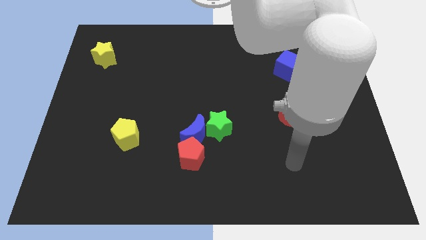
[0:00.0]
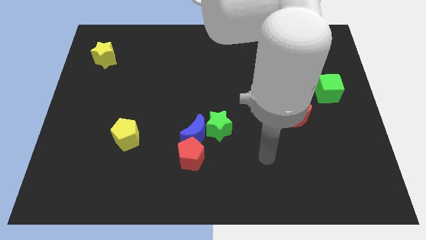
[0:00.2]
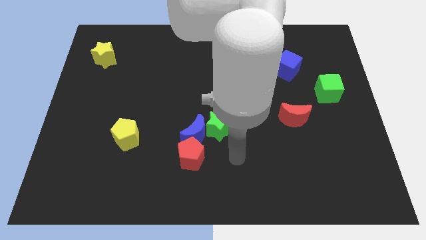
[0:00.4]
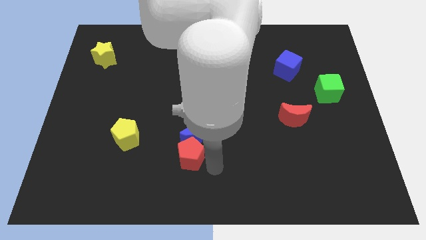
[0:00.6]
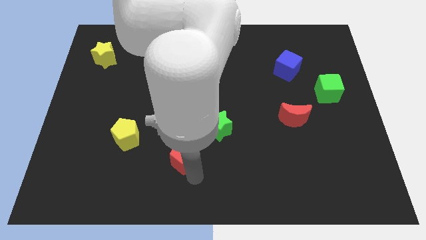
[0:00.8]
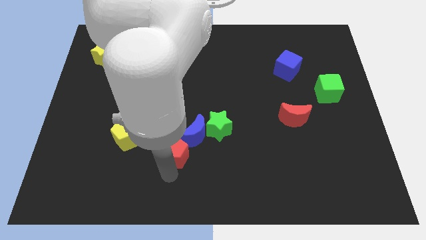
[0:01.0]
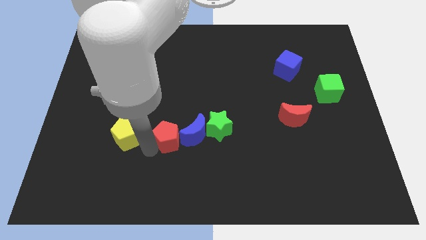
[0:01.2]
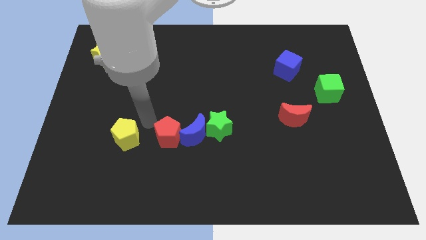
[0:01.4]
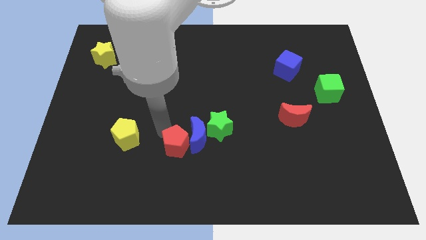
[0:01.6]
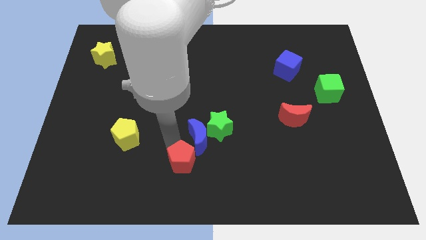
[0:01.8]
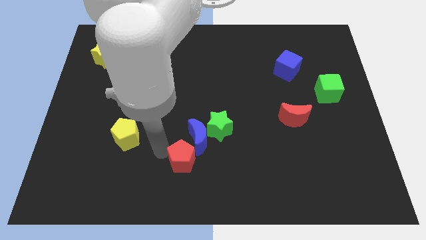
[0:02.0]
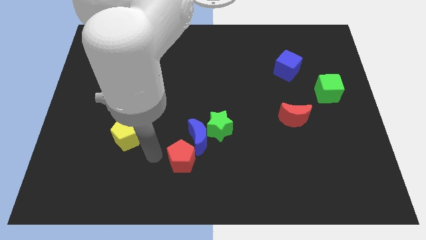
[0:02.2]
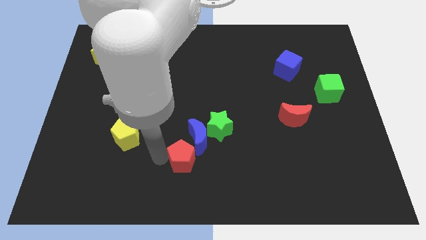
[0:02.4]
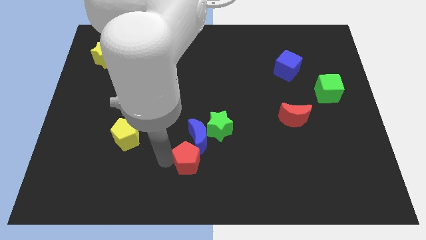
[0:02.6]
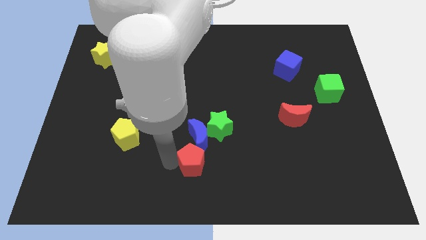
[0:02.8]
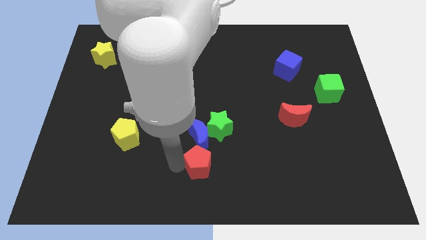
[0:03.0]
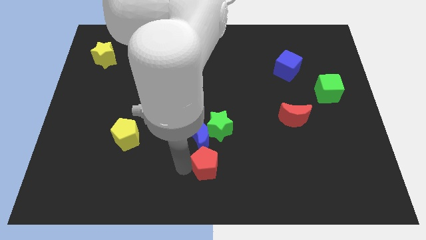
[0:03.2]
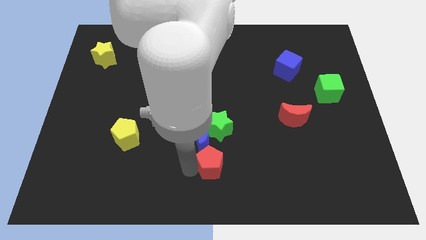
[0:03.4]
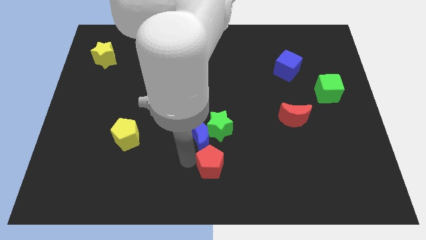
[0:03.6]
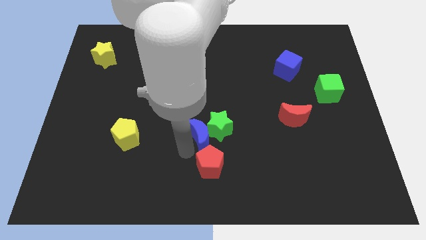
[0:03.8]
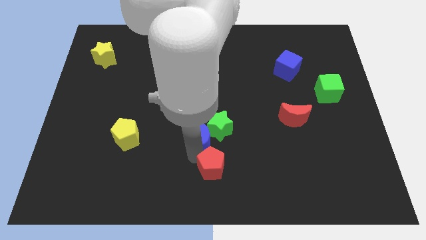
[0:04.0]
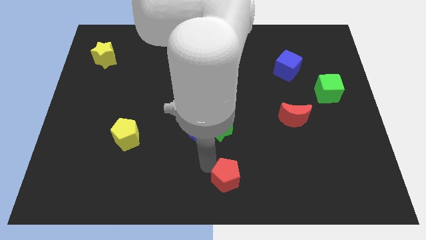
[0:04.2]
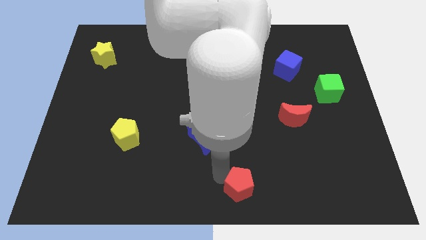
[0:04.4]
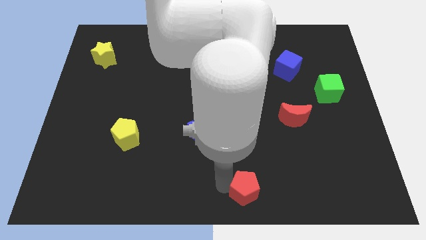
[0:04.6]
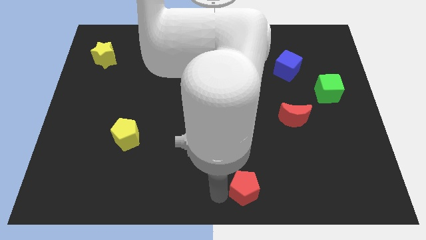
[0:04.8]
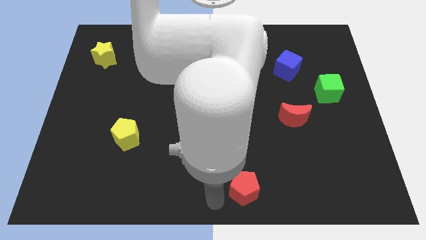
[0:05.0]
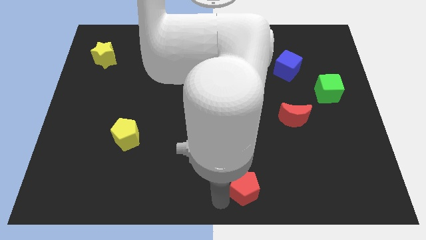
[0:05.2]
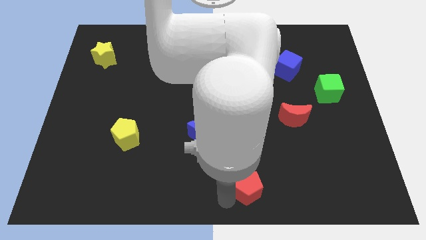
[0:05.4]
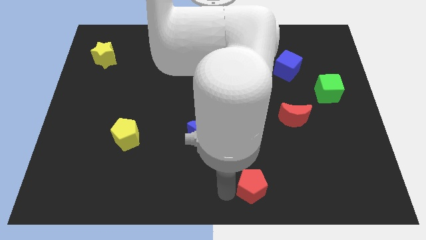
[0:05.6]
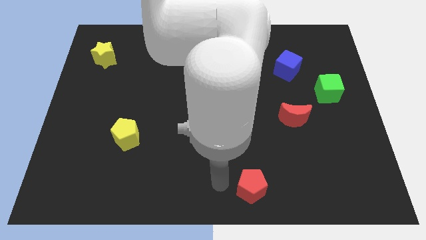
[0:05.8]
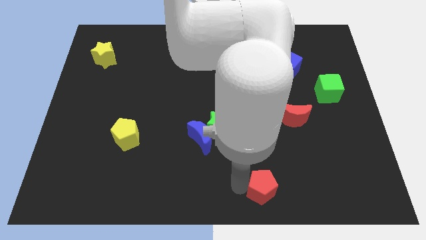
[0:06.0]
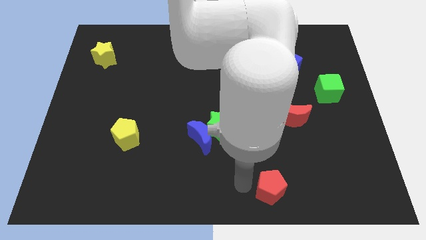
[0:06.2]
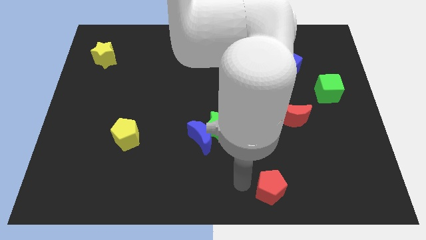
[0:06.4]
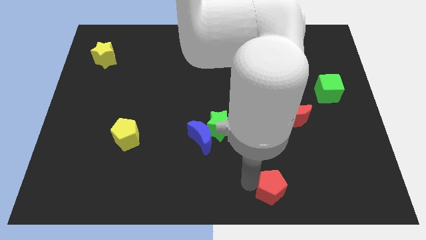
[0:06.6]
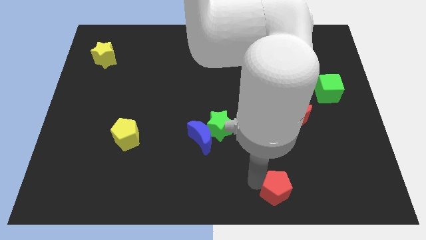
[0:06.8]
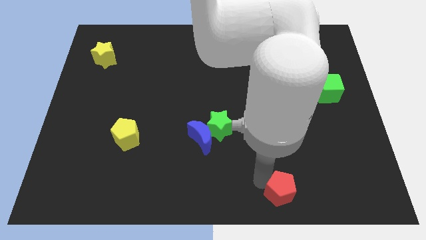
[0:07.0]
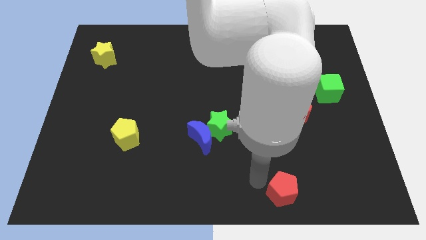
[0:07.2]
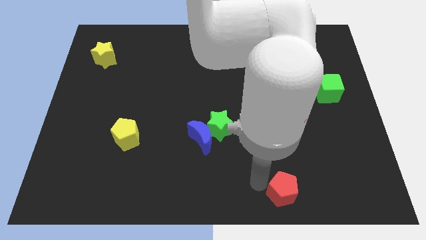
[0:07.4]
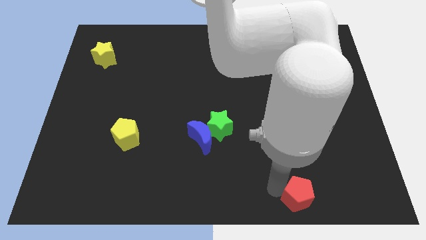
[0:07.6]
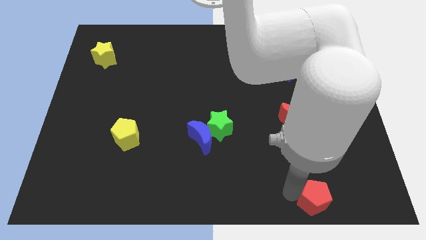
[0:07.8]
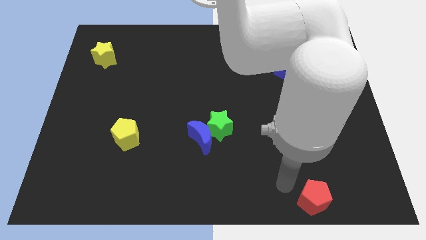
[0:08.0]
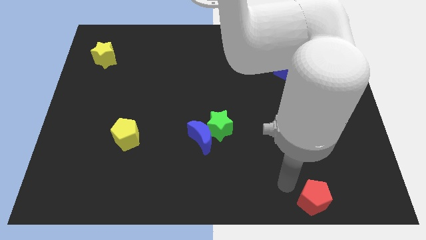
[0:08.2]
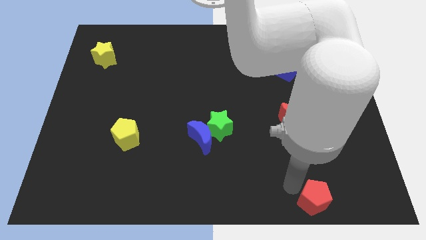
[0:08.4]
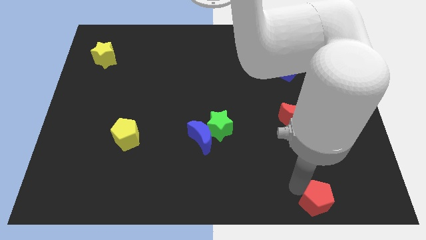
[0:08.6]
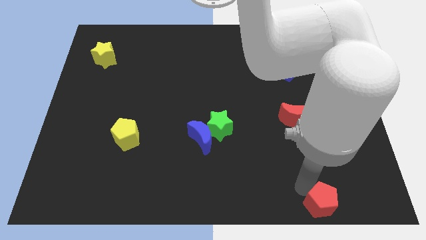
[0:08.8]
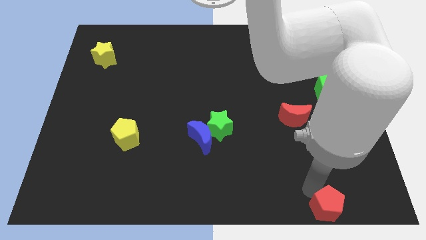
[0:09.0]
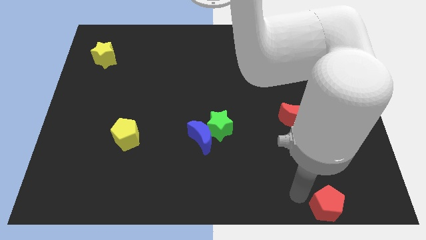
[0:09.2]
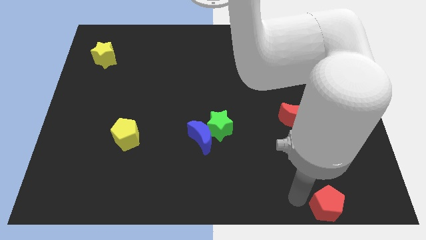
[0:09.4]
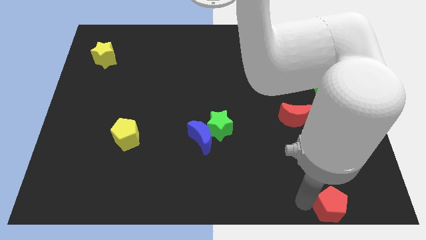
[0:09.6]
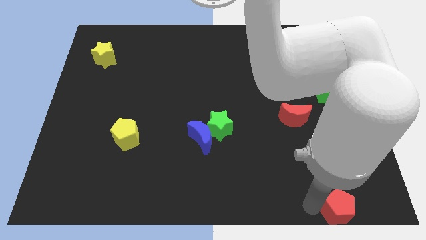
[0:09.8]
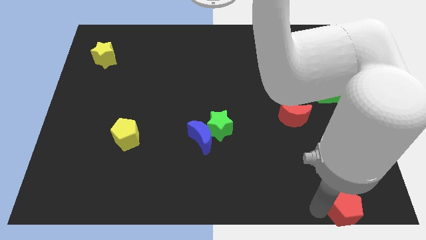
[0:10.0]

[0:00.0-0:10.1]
push the red pentagon to the bottom right

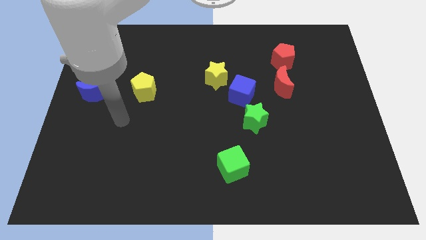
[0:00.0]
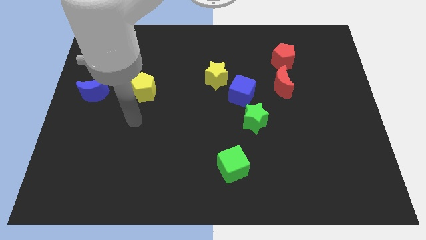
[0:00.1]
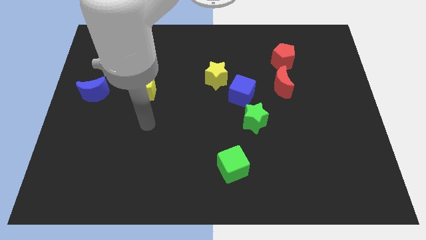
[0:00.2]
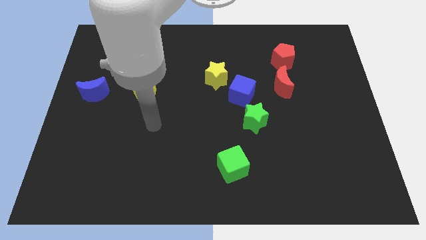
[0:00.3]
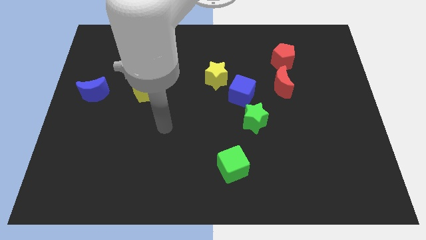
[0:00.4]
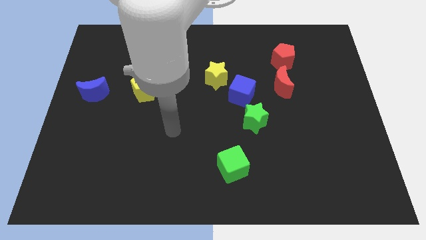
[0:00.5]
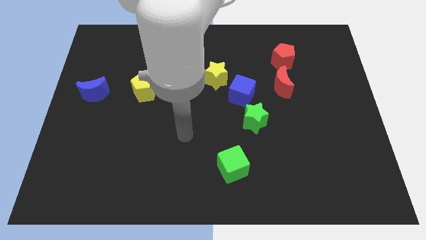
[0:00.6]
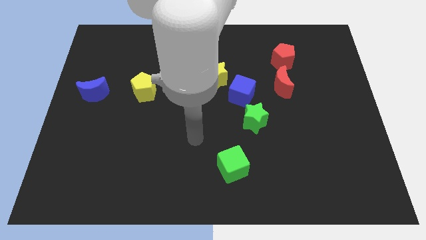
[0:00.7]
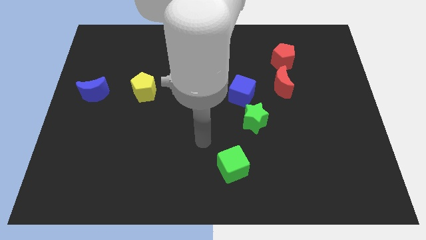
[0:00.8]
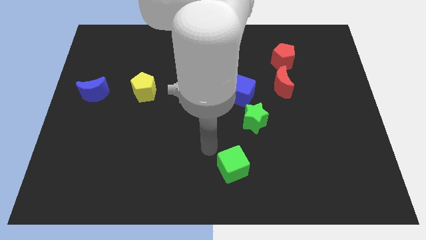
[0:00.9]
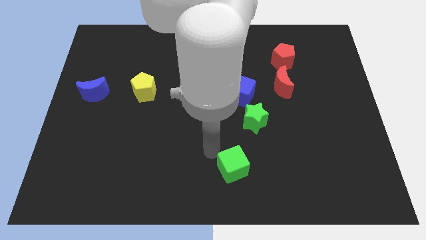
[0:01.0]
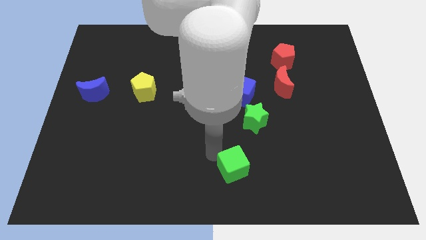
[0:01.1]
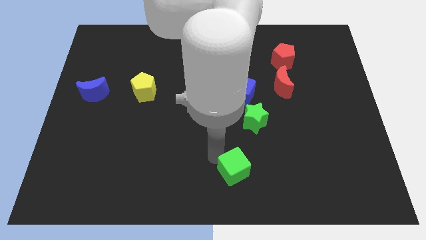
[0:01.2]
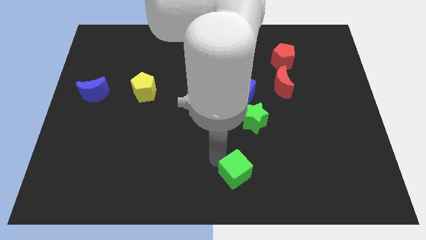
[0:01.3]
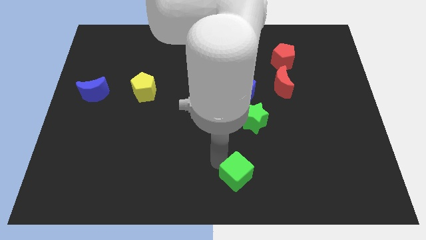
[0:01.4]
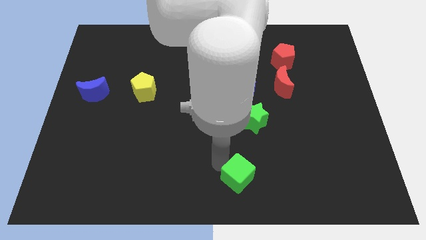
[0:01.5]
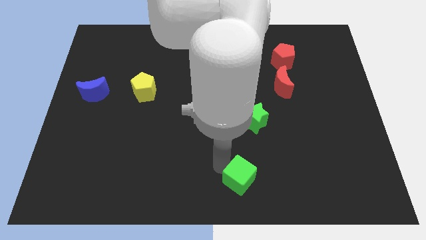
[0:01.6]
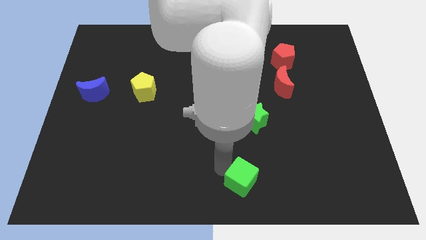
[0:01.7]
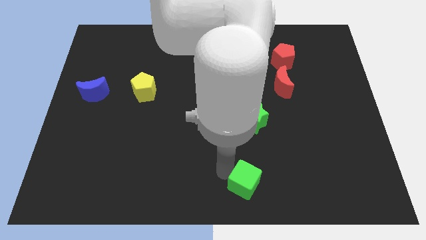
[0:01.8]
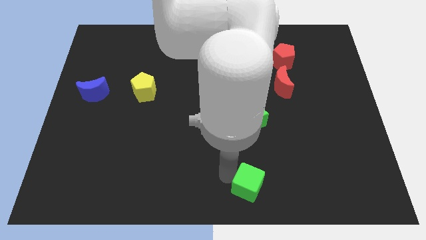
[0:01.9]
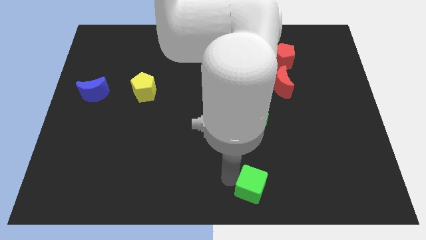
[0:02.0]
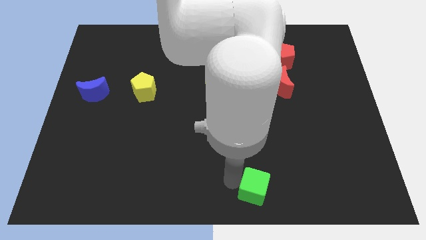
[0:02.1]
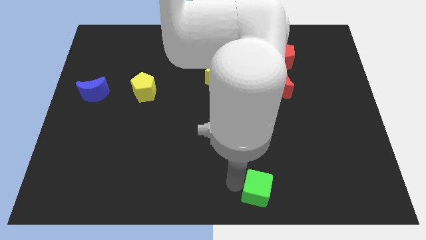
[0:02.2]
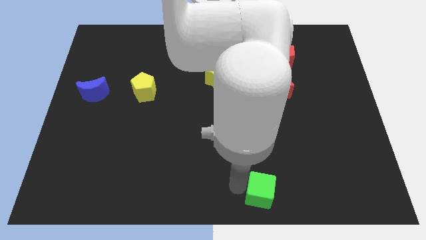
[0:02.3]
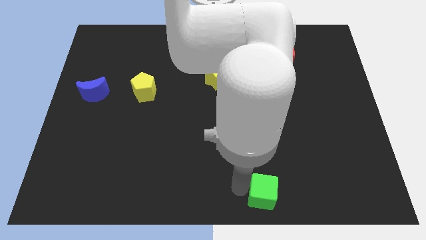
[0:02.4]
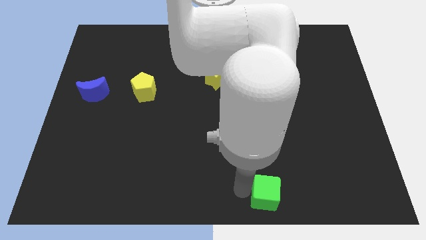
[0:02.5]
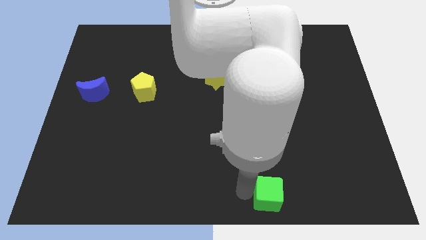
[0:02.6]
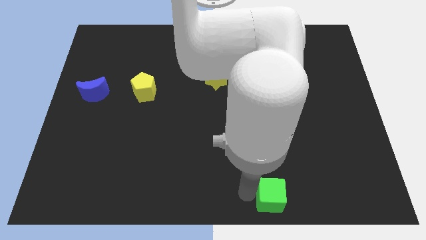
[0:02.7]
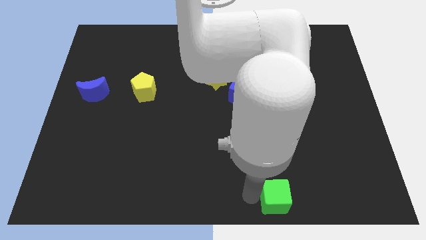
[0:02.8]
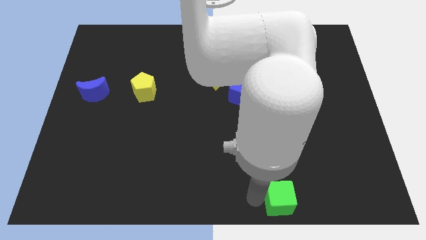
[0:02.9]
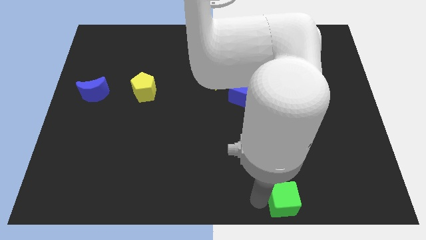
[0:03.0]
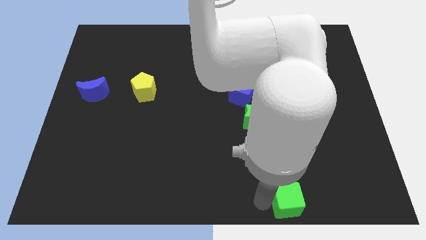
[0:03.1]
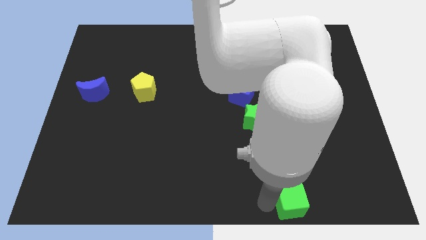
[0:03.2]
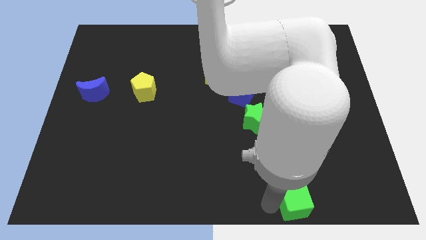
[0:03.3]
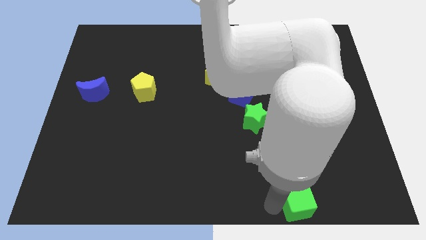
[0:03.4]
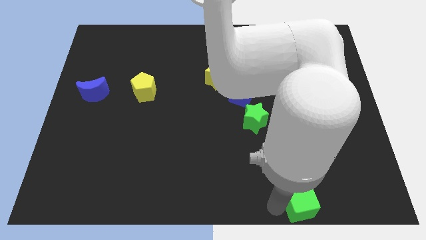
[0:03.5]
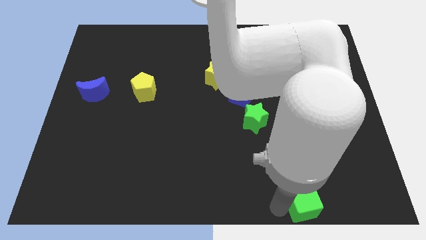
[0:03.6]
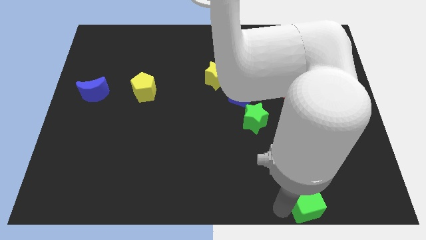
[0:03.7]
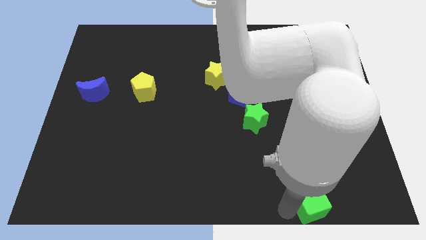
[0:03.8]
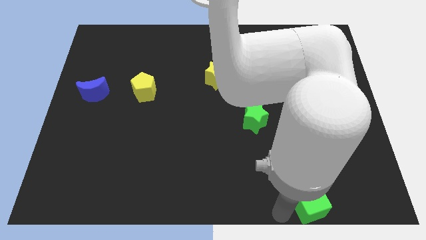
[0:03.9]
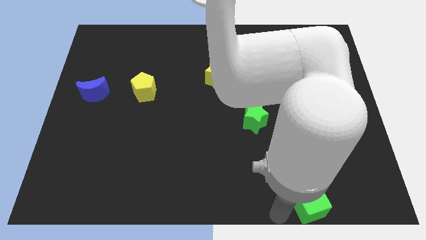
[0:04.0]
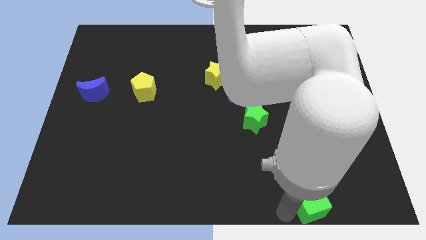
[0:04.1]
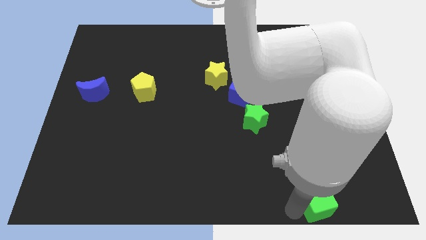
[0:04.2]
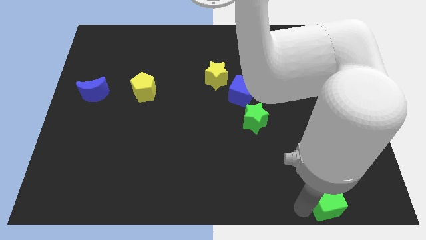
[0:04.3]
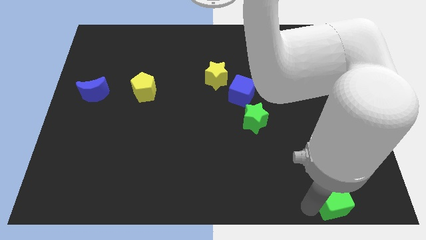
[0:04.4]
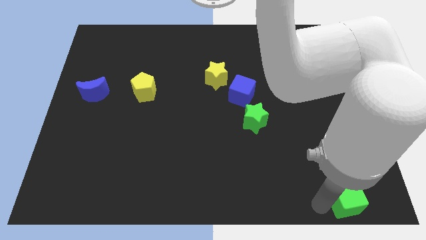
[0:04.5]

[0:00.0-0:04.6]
put the green cube to the bottom right
